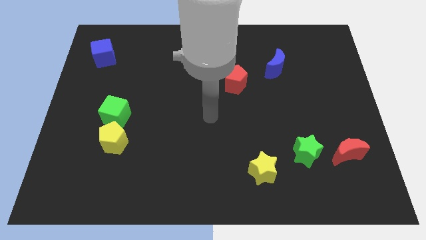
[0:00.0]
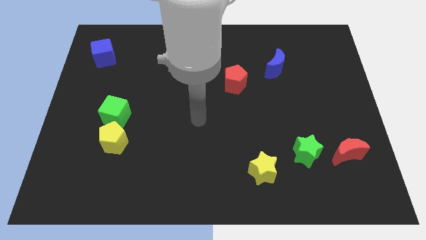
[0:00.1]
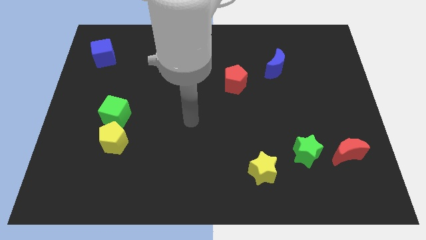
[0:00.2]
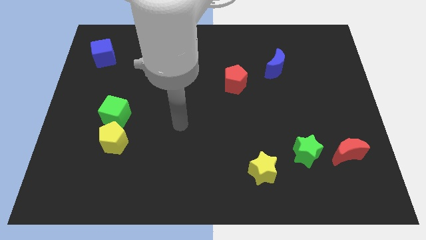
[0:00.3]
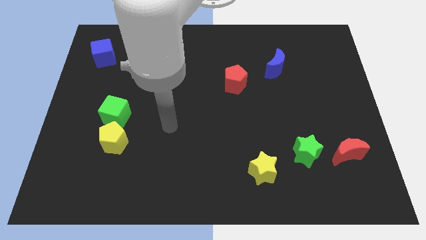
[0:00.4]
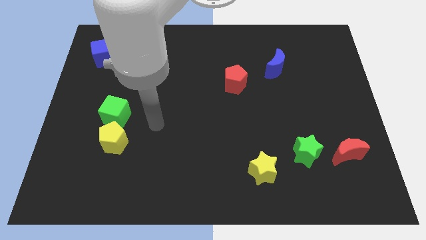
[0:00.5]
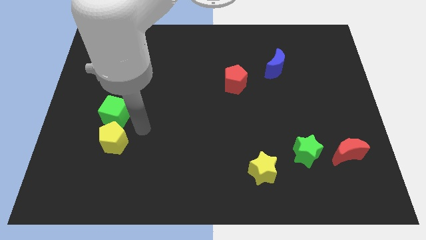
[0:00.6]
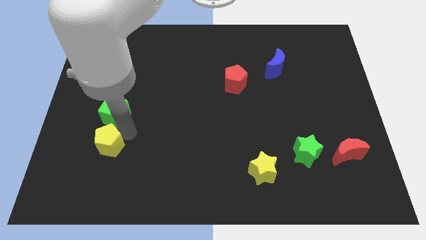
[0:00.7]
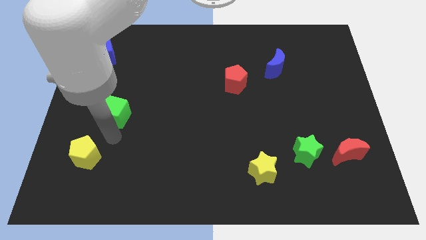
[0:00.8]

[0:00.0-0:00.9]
move the green cube away from the yellow pentagon

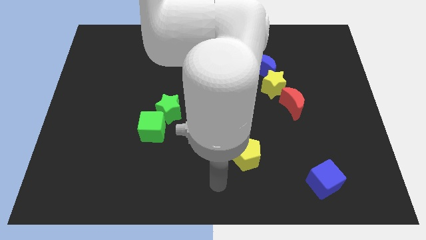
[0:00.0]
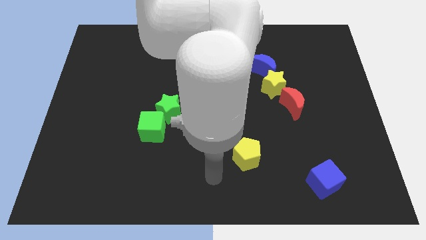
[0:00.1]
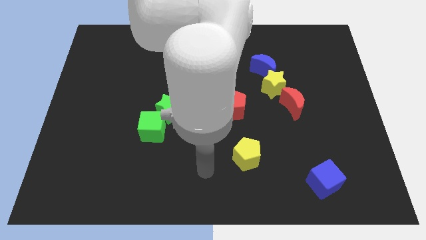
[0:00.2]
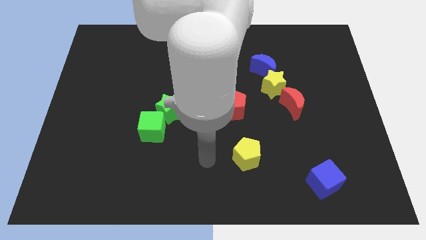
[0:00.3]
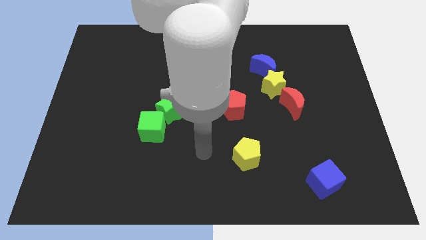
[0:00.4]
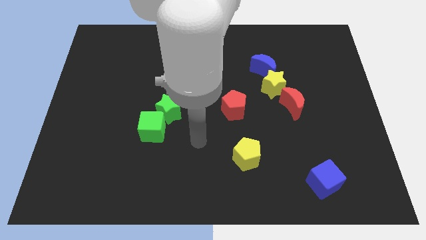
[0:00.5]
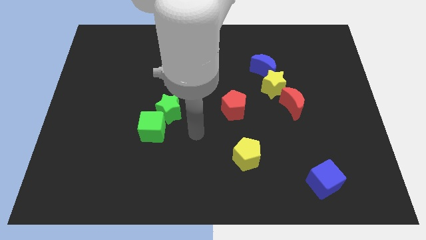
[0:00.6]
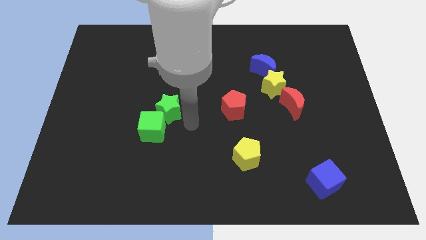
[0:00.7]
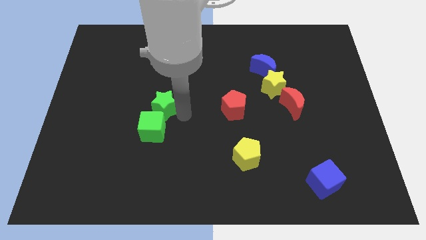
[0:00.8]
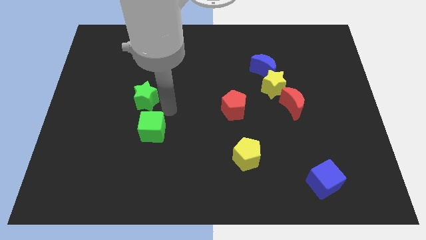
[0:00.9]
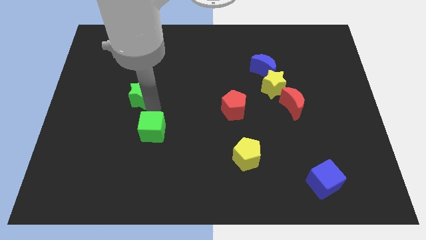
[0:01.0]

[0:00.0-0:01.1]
separate the green cube from the green star

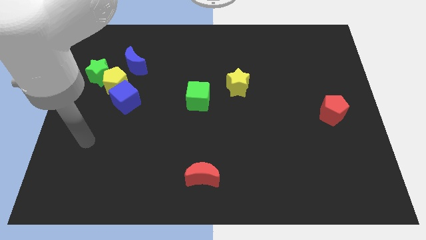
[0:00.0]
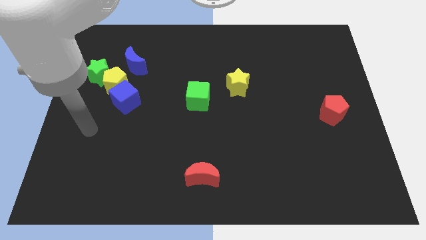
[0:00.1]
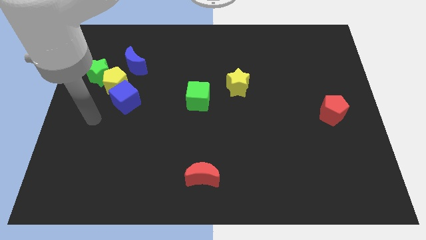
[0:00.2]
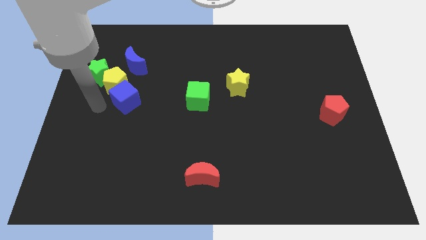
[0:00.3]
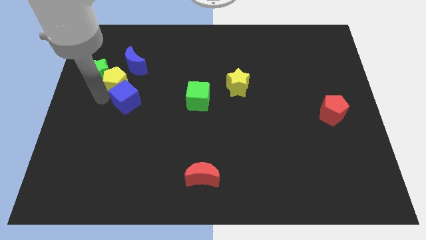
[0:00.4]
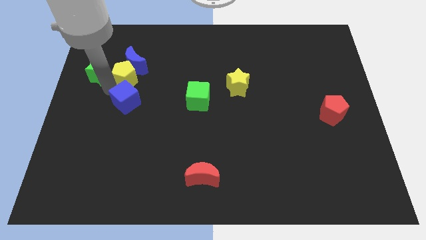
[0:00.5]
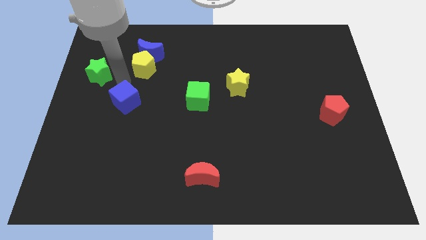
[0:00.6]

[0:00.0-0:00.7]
move the blue cube away from the yellow pentagon

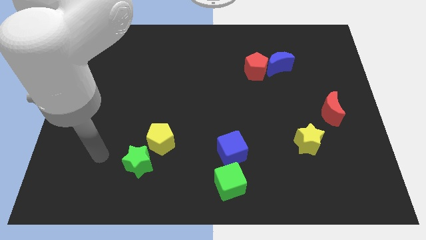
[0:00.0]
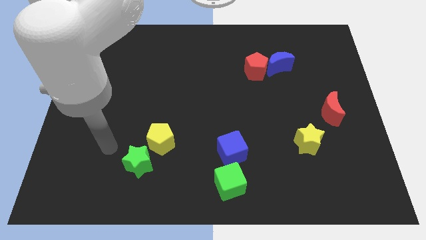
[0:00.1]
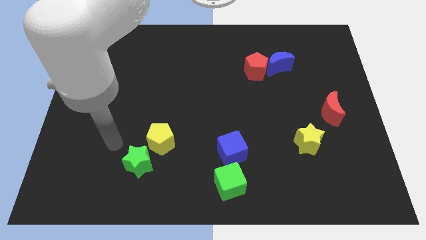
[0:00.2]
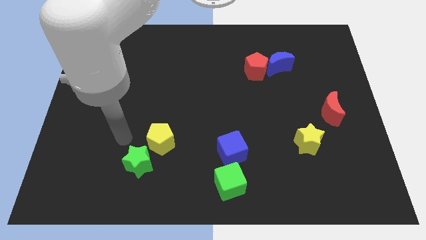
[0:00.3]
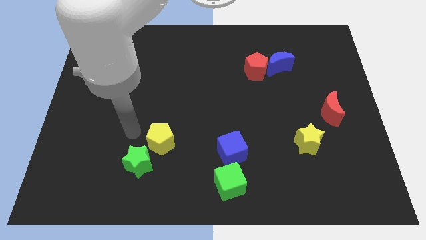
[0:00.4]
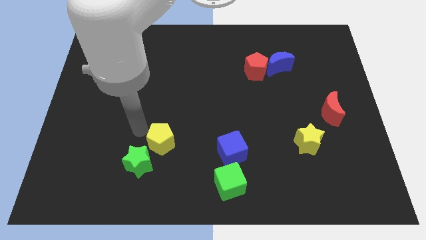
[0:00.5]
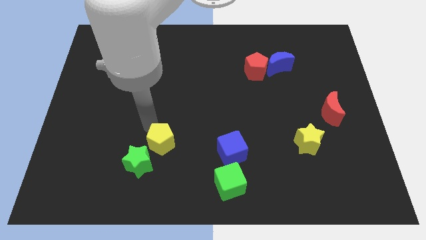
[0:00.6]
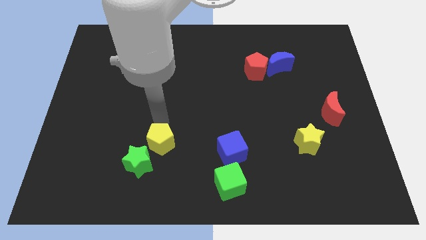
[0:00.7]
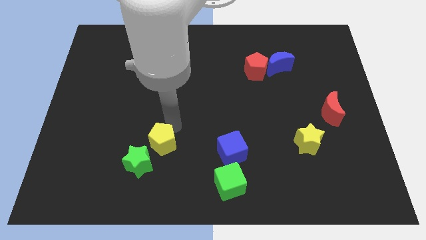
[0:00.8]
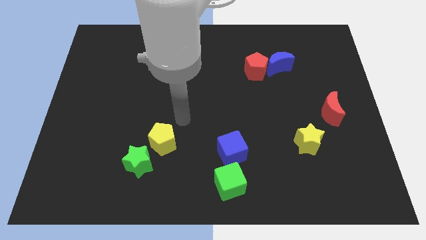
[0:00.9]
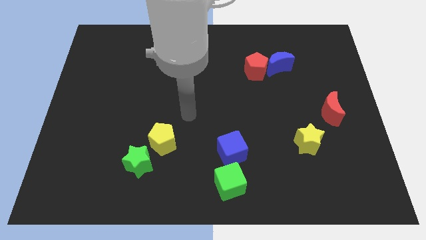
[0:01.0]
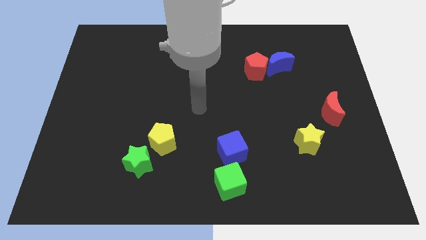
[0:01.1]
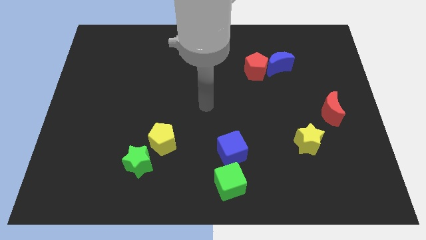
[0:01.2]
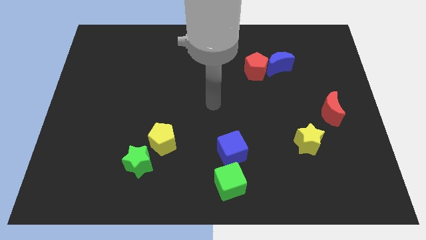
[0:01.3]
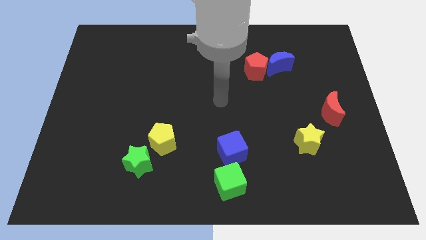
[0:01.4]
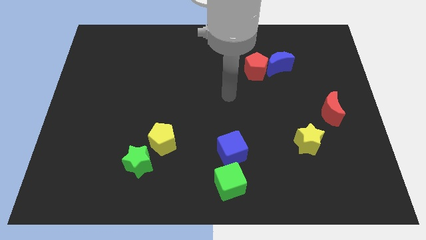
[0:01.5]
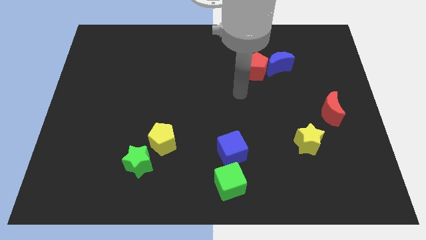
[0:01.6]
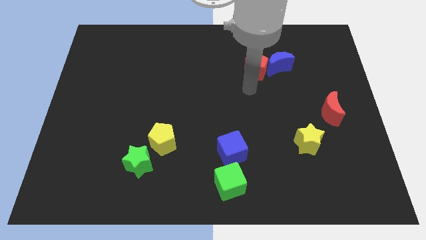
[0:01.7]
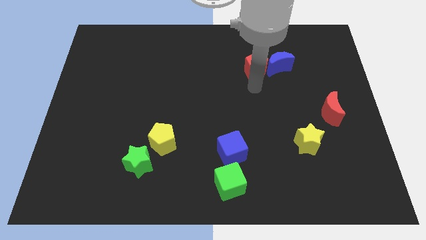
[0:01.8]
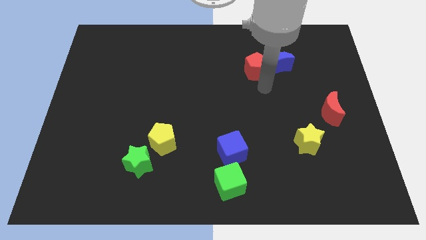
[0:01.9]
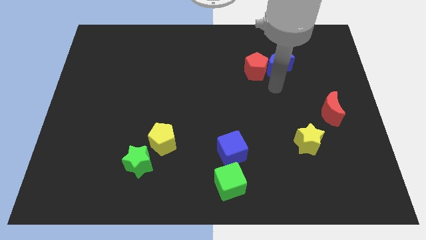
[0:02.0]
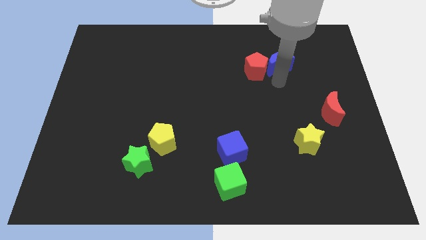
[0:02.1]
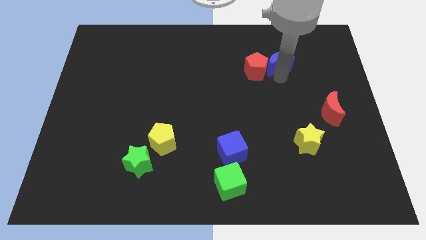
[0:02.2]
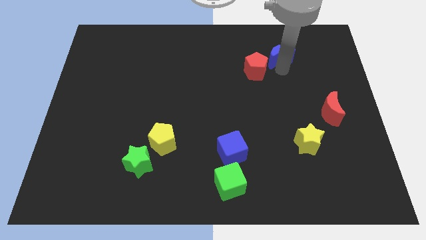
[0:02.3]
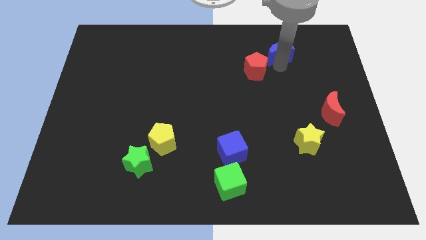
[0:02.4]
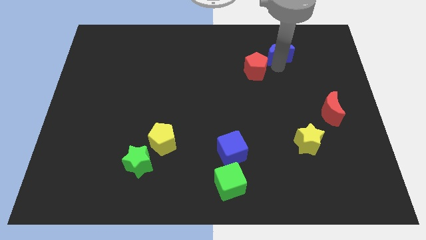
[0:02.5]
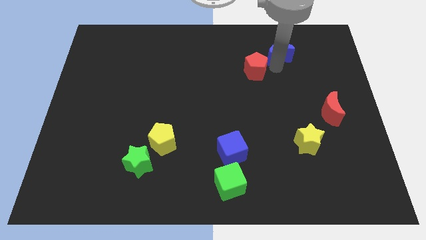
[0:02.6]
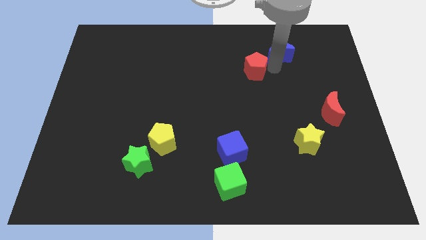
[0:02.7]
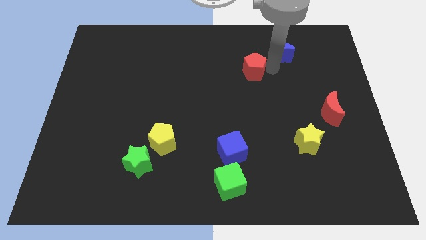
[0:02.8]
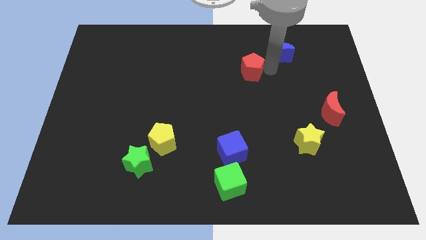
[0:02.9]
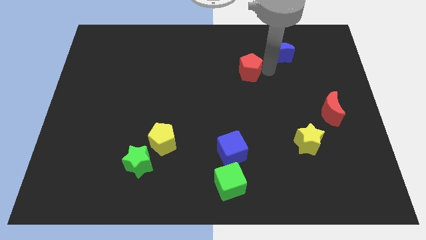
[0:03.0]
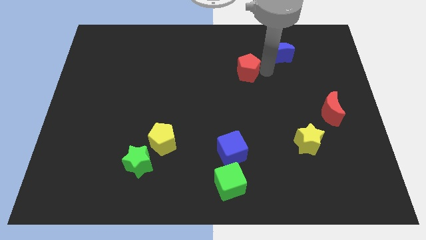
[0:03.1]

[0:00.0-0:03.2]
move the red pentagon away from the blue moon

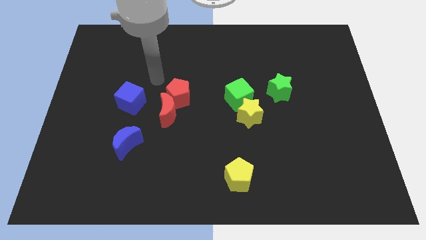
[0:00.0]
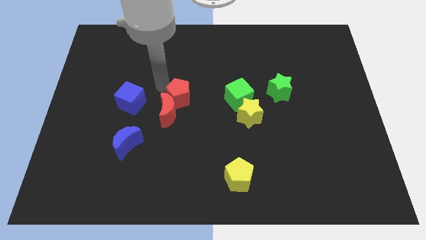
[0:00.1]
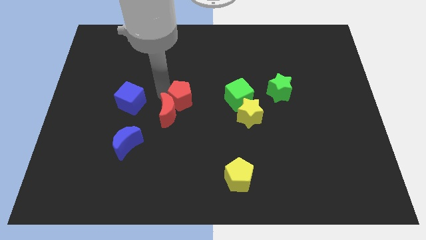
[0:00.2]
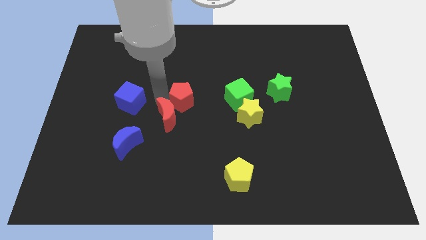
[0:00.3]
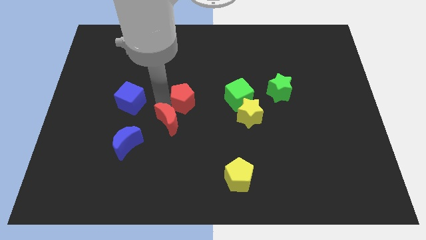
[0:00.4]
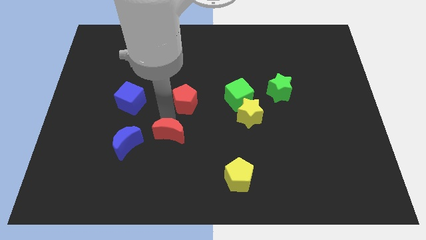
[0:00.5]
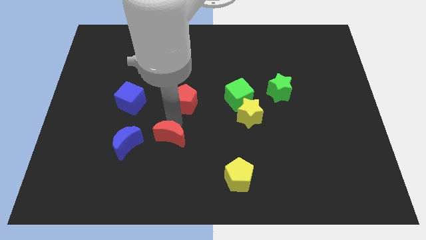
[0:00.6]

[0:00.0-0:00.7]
pull the red pentagon apart from the red moon

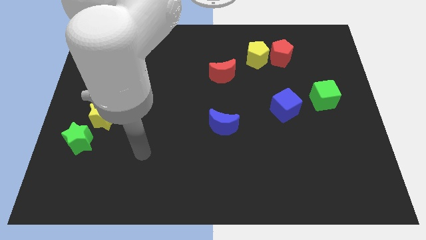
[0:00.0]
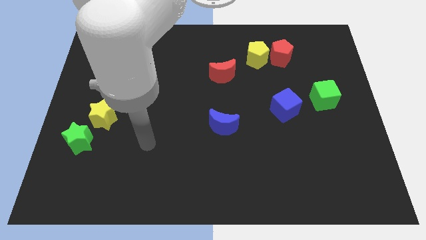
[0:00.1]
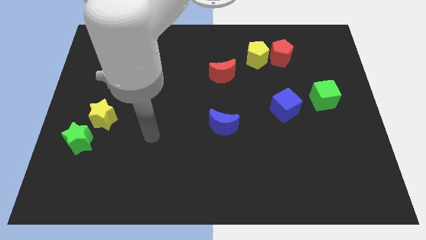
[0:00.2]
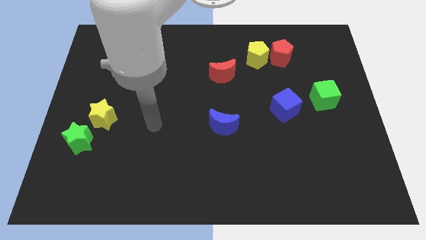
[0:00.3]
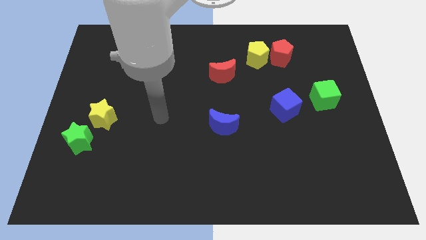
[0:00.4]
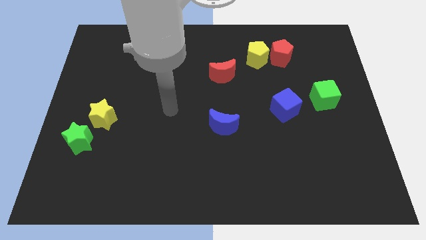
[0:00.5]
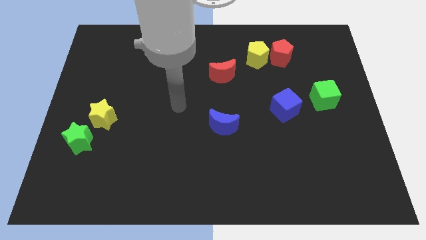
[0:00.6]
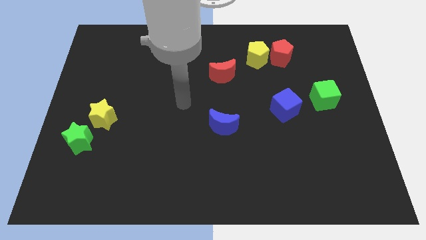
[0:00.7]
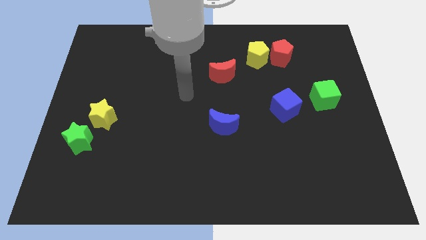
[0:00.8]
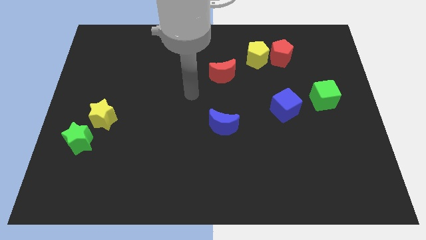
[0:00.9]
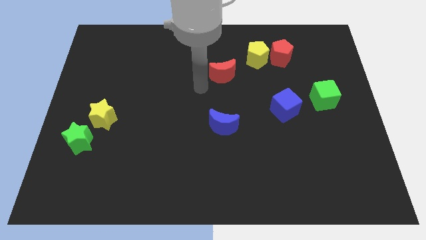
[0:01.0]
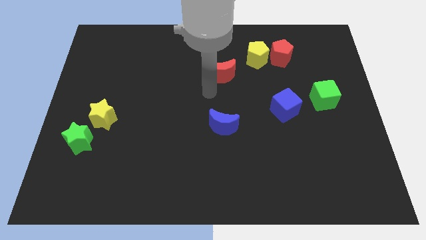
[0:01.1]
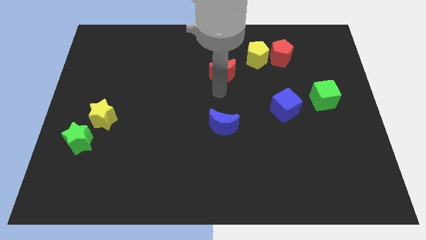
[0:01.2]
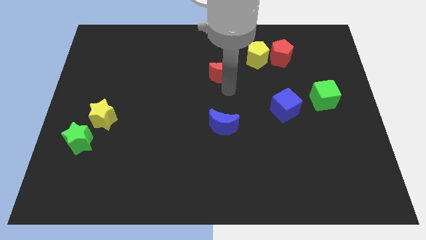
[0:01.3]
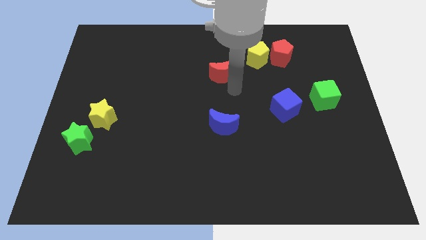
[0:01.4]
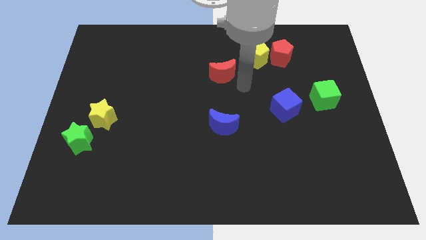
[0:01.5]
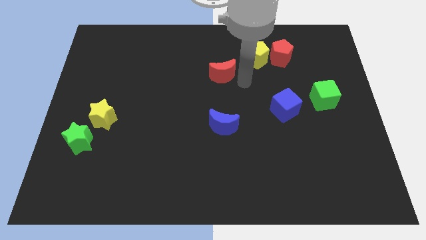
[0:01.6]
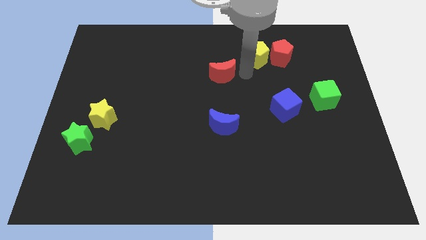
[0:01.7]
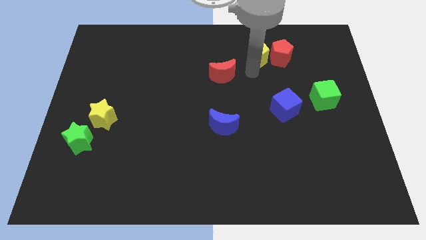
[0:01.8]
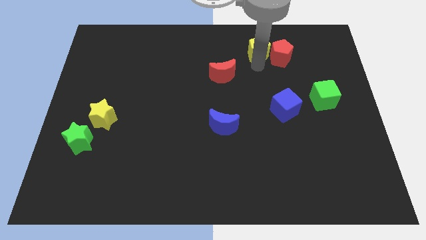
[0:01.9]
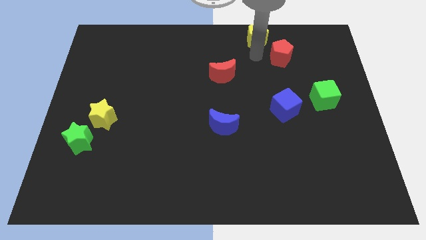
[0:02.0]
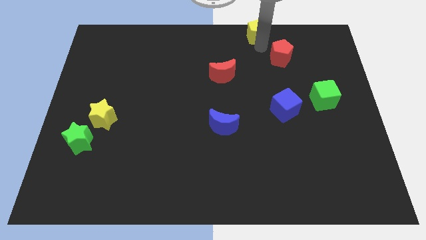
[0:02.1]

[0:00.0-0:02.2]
pull the red pentagon apart from the yellow pentagon

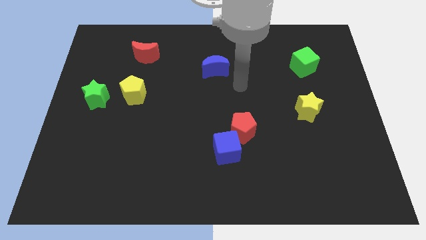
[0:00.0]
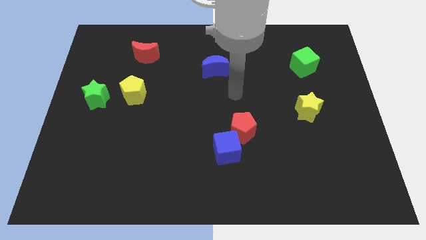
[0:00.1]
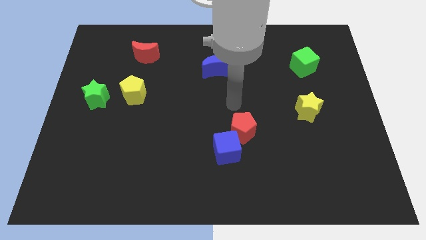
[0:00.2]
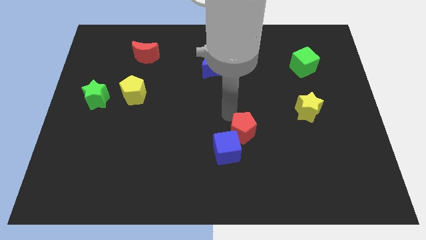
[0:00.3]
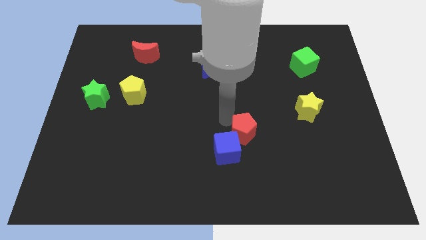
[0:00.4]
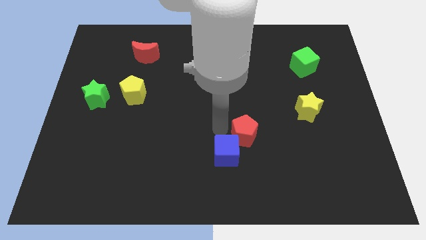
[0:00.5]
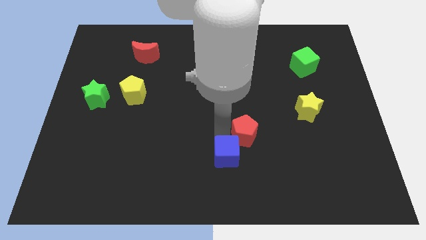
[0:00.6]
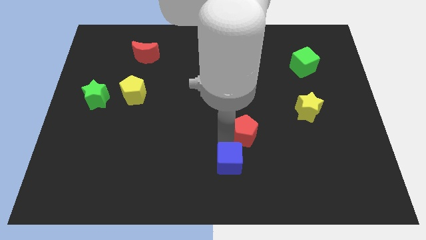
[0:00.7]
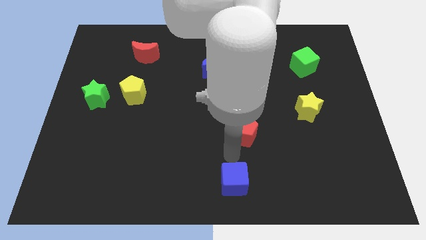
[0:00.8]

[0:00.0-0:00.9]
move the red pentagon away from the blue cube
